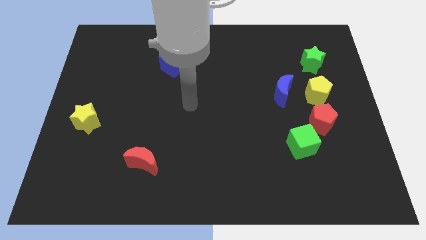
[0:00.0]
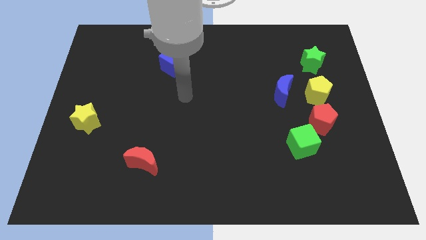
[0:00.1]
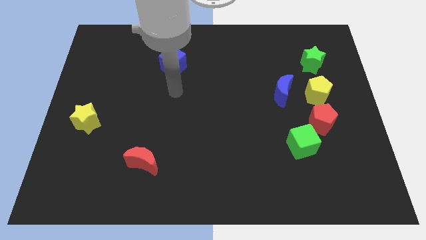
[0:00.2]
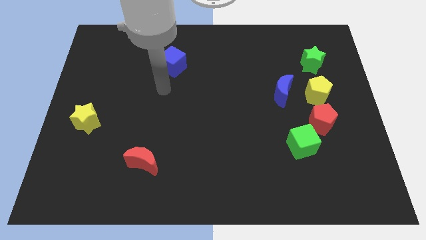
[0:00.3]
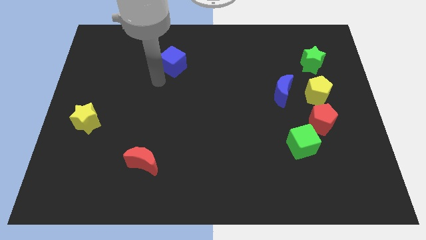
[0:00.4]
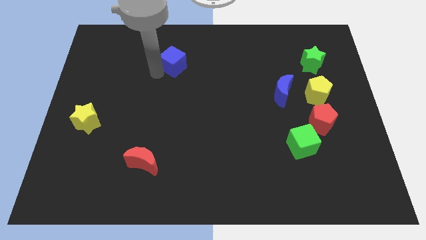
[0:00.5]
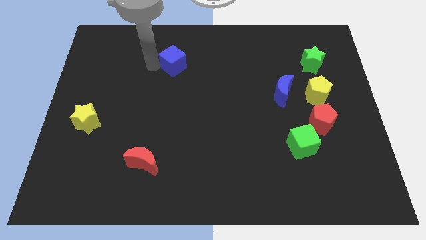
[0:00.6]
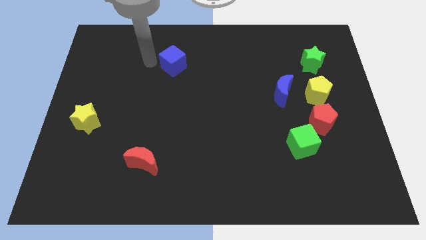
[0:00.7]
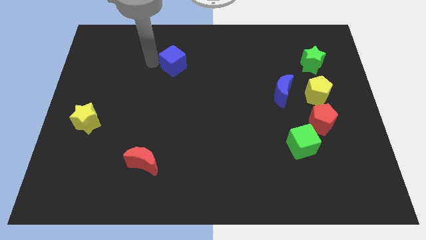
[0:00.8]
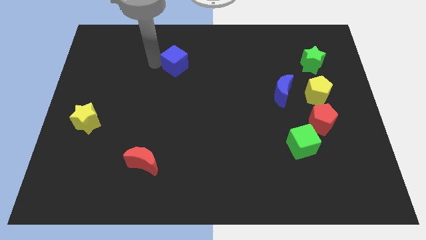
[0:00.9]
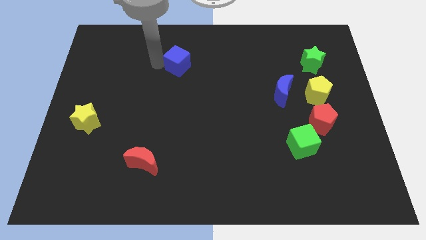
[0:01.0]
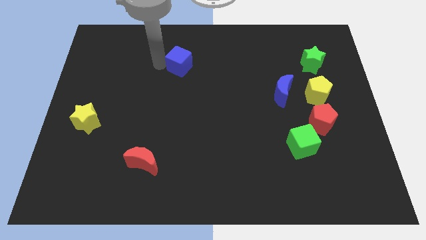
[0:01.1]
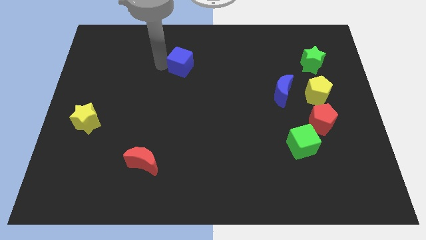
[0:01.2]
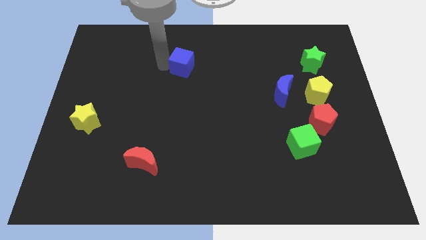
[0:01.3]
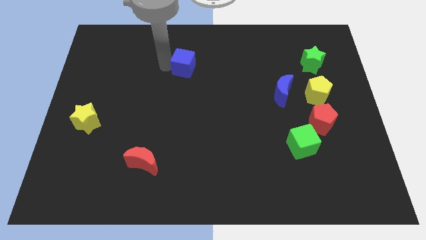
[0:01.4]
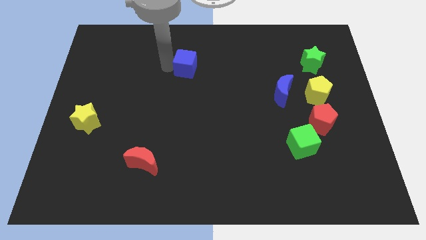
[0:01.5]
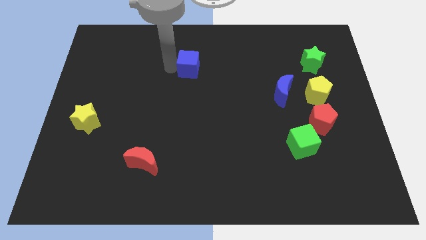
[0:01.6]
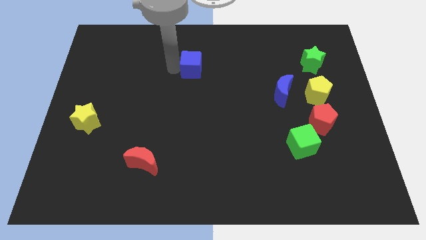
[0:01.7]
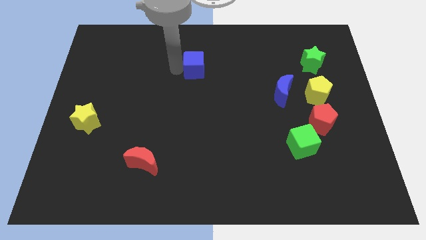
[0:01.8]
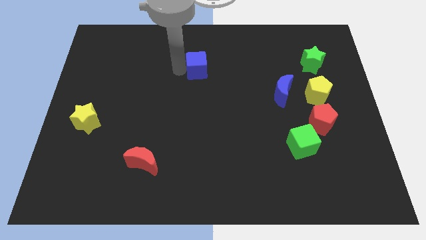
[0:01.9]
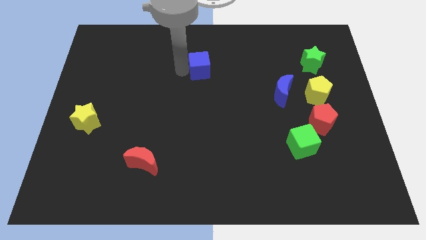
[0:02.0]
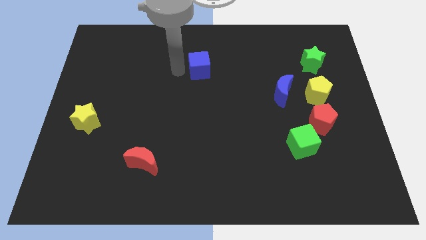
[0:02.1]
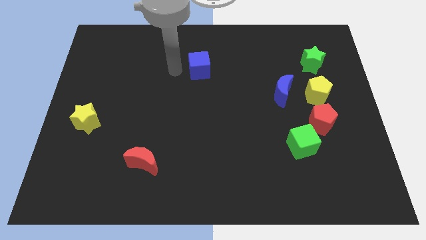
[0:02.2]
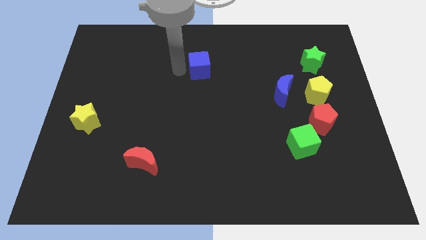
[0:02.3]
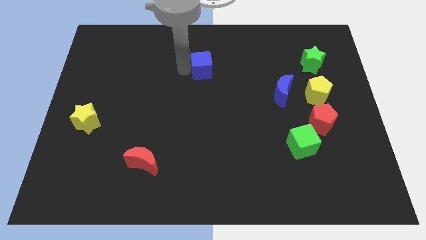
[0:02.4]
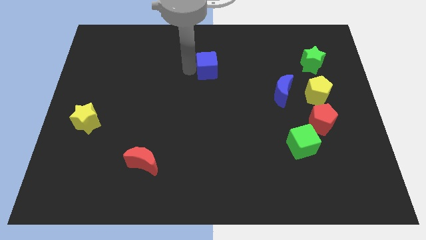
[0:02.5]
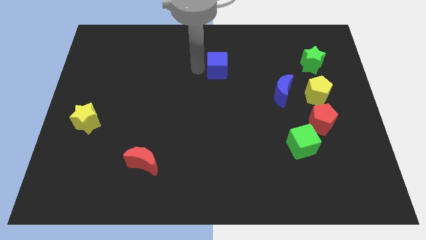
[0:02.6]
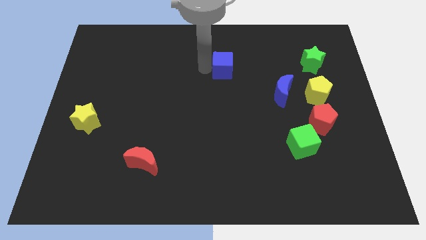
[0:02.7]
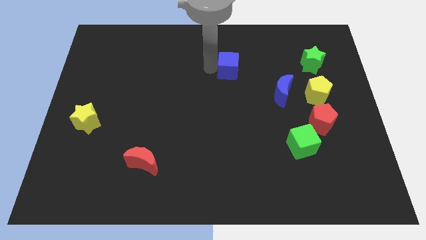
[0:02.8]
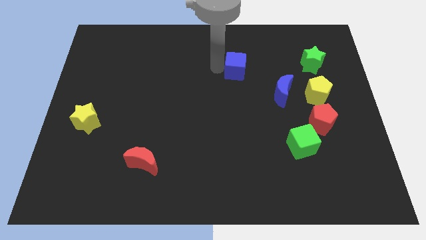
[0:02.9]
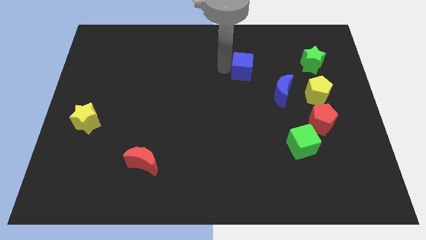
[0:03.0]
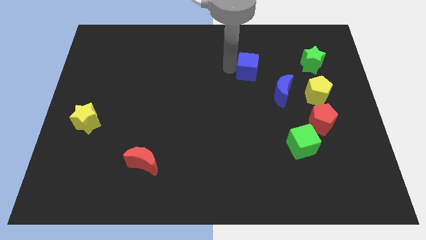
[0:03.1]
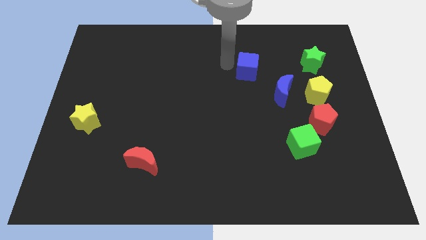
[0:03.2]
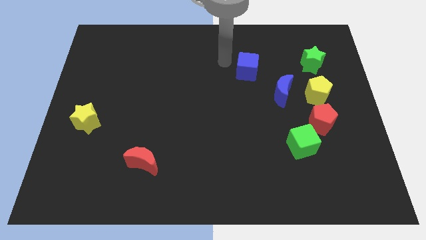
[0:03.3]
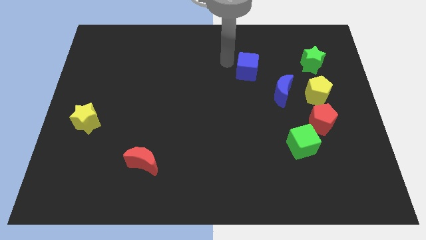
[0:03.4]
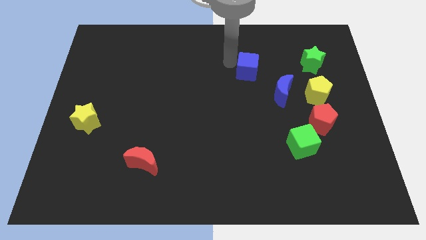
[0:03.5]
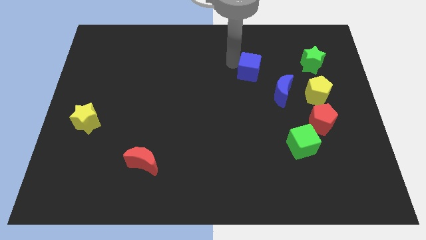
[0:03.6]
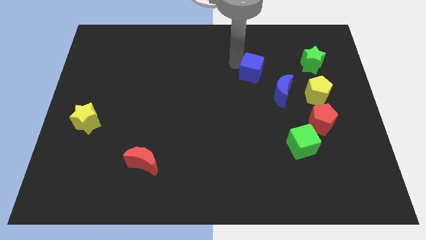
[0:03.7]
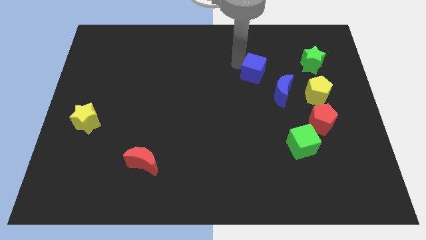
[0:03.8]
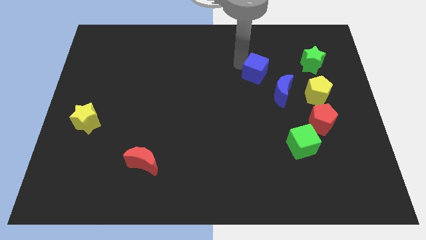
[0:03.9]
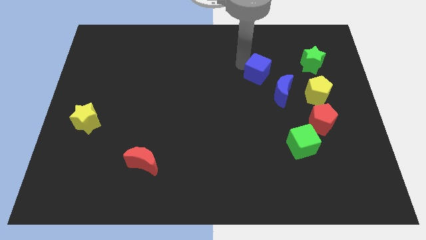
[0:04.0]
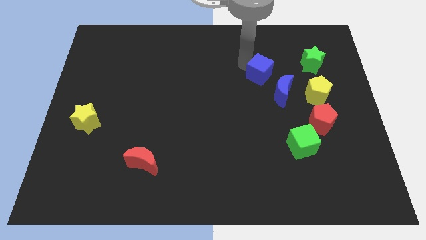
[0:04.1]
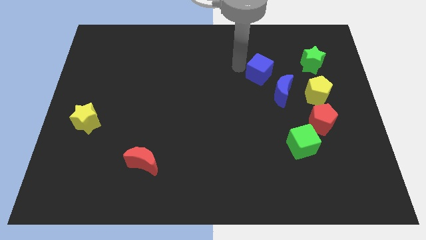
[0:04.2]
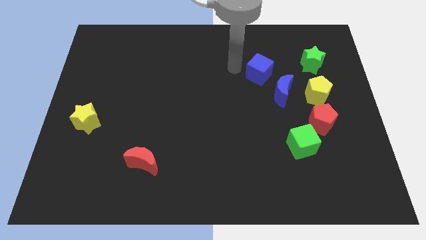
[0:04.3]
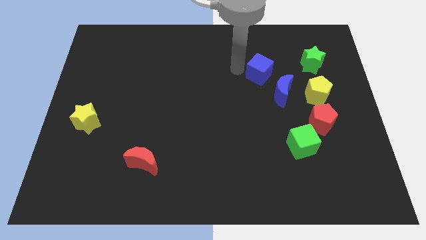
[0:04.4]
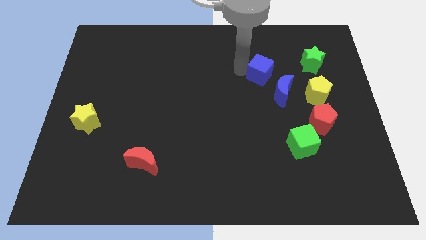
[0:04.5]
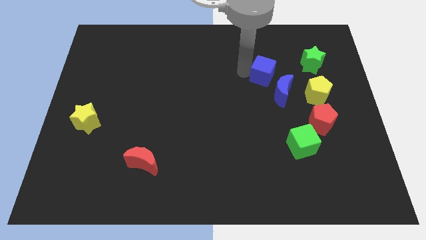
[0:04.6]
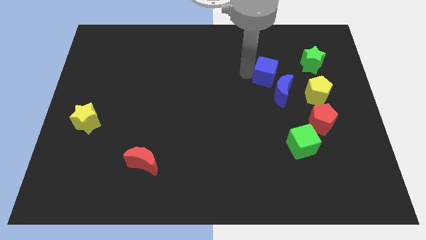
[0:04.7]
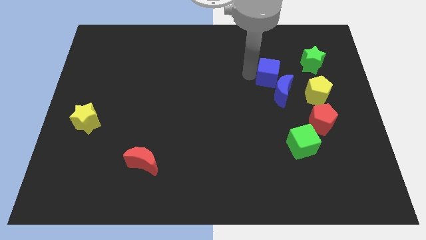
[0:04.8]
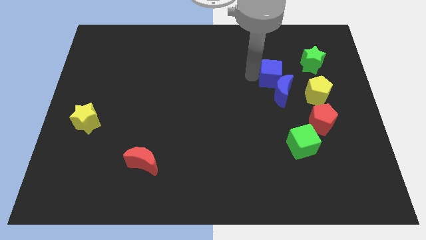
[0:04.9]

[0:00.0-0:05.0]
move the blue cube to the top left side of the yellow pentagon

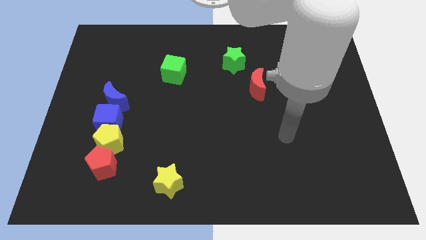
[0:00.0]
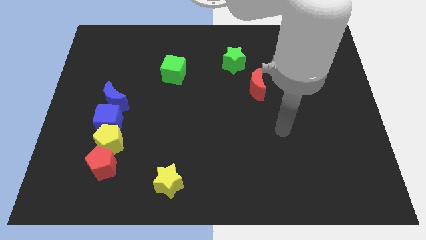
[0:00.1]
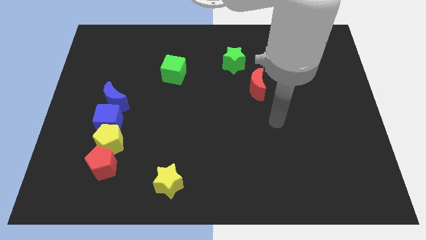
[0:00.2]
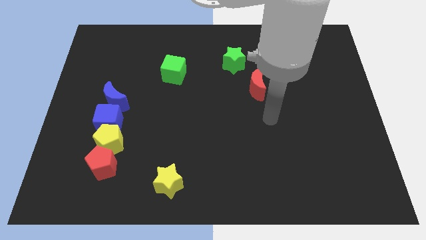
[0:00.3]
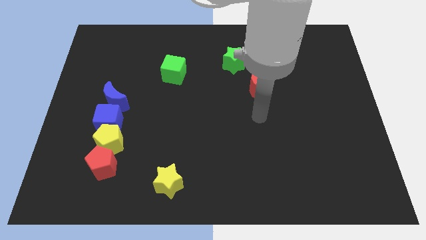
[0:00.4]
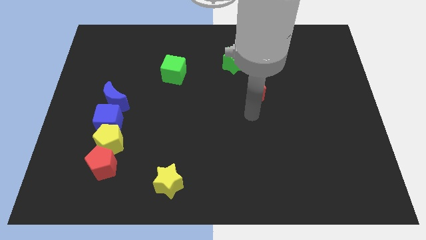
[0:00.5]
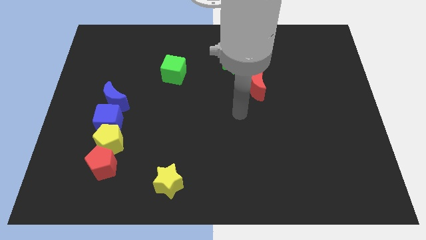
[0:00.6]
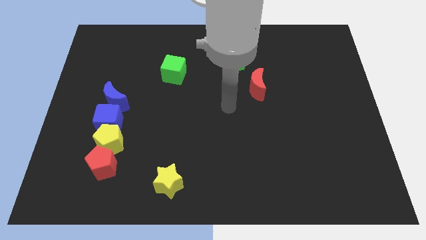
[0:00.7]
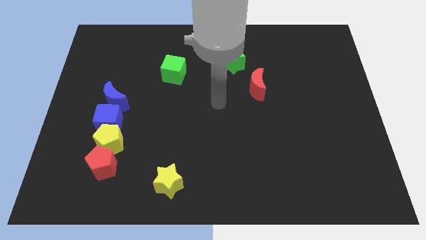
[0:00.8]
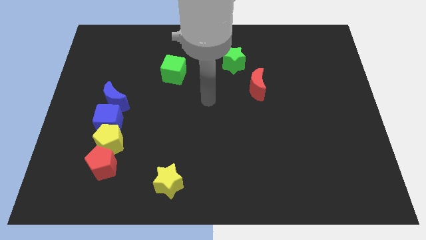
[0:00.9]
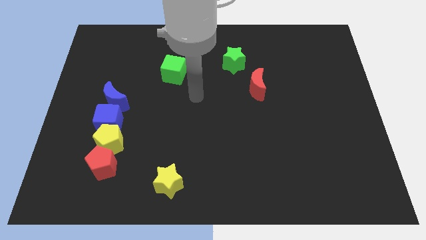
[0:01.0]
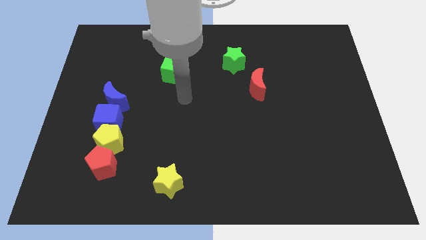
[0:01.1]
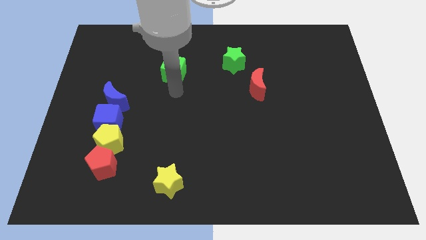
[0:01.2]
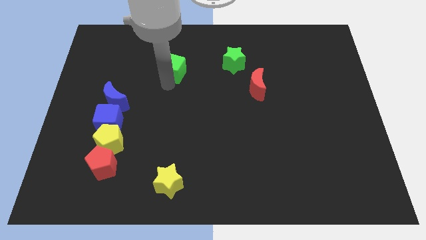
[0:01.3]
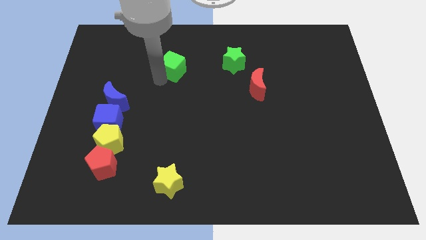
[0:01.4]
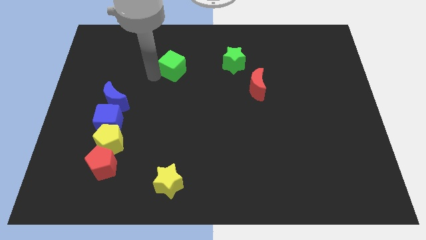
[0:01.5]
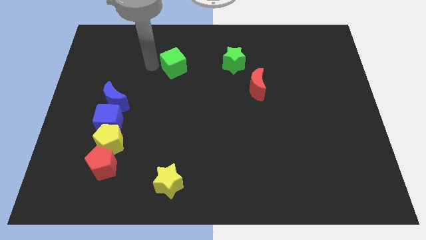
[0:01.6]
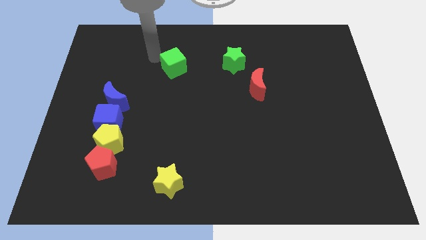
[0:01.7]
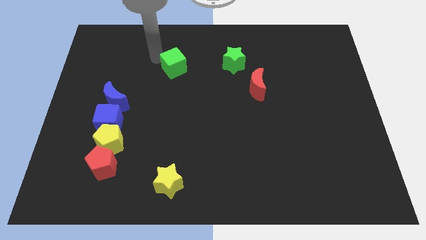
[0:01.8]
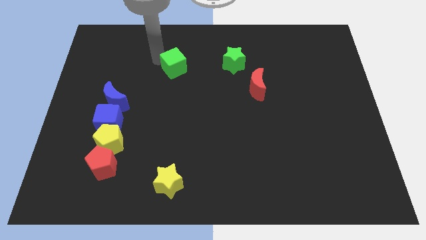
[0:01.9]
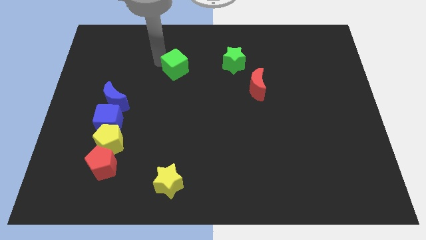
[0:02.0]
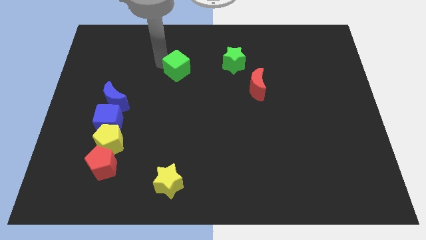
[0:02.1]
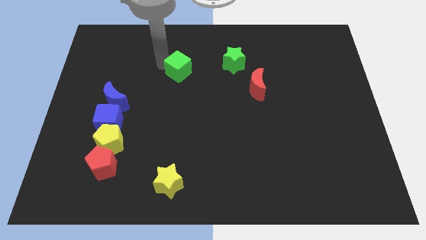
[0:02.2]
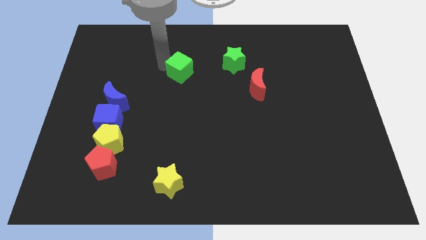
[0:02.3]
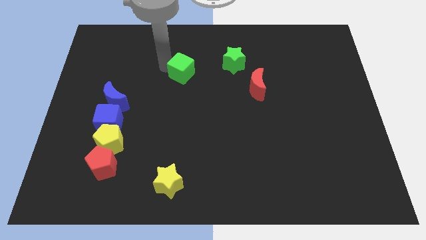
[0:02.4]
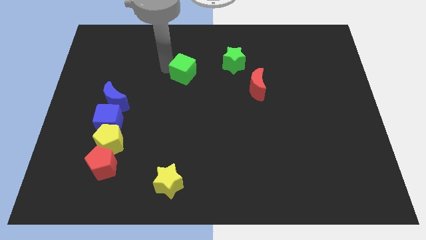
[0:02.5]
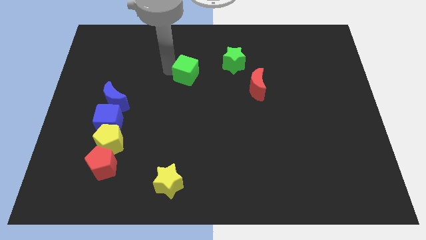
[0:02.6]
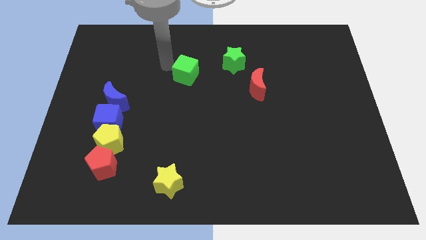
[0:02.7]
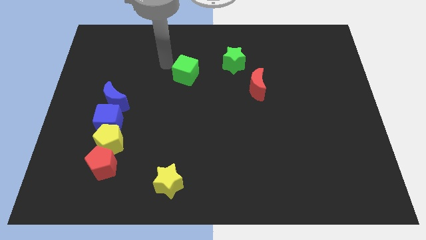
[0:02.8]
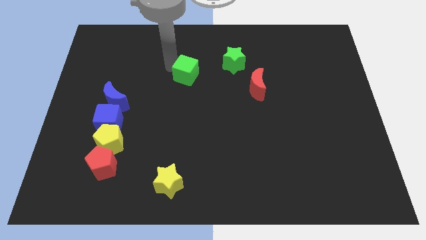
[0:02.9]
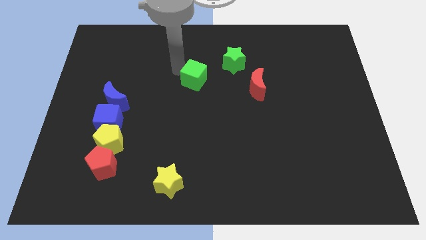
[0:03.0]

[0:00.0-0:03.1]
put the green cube just left of the red moon
